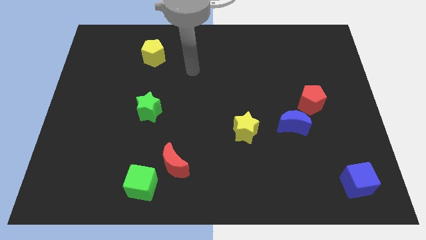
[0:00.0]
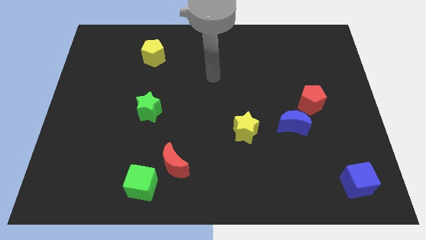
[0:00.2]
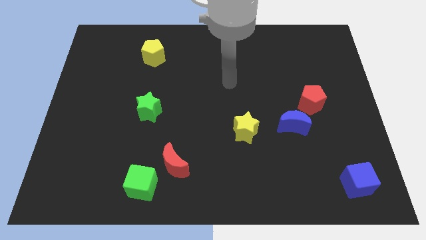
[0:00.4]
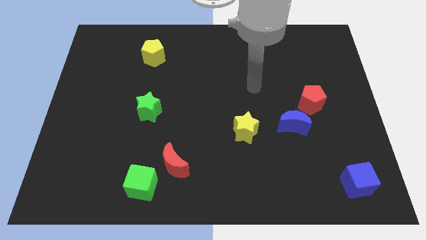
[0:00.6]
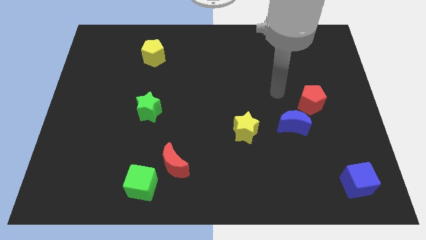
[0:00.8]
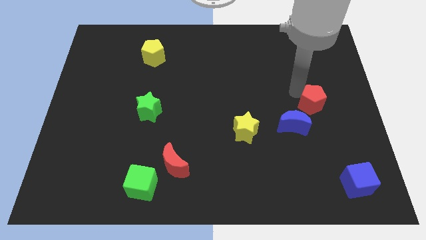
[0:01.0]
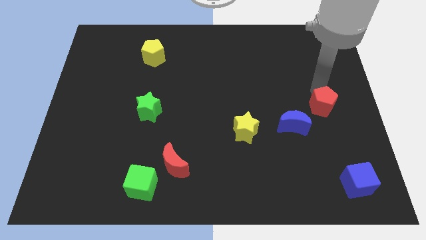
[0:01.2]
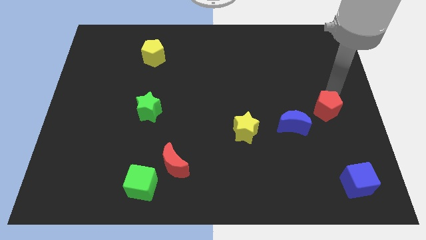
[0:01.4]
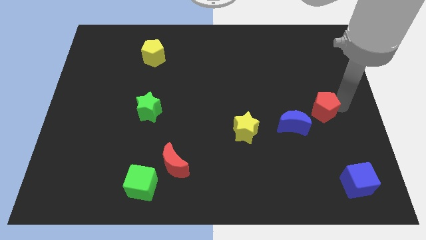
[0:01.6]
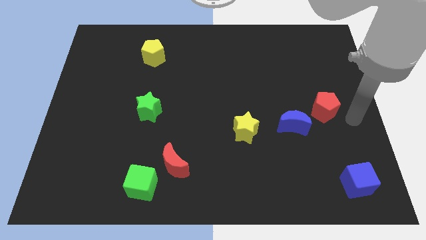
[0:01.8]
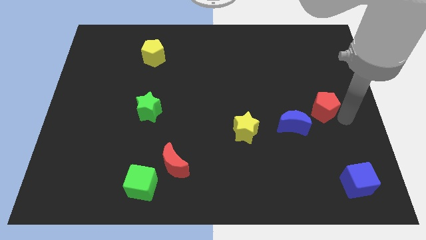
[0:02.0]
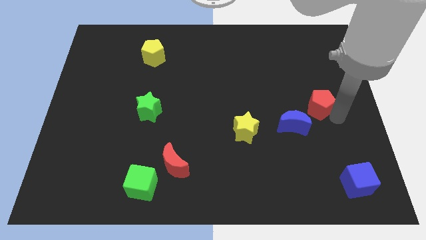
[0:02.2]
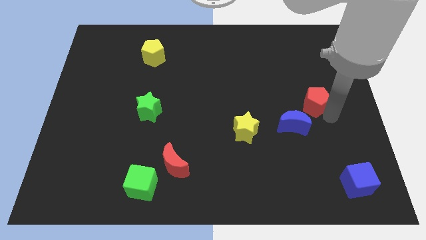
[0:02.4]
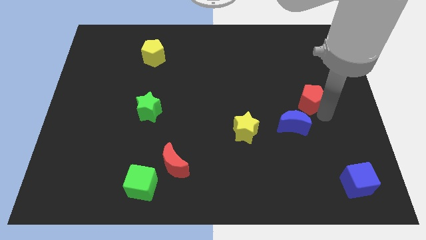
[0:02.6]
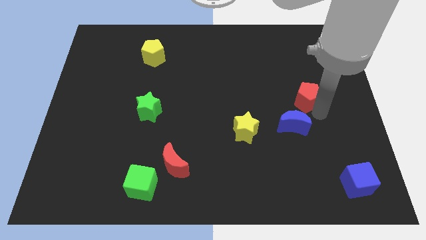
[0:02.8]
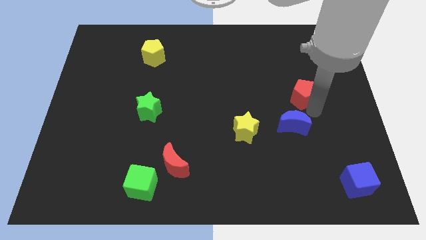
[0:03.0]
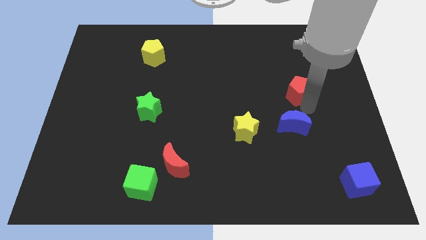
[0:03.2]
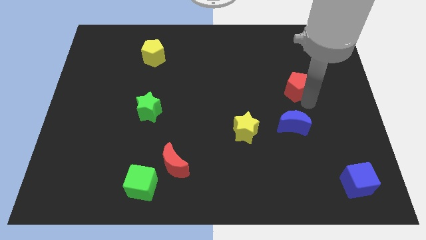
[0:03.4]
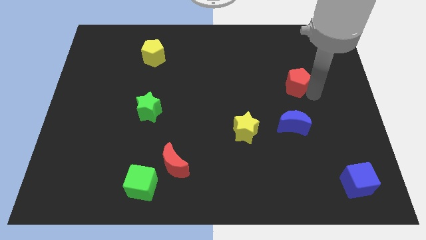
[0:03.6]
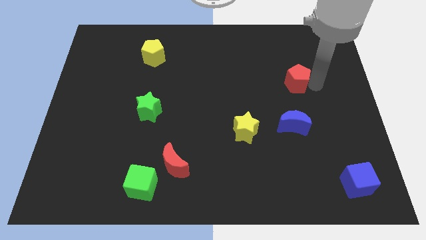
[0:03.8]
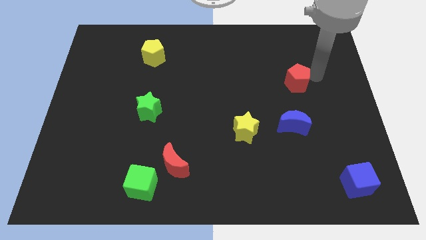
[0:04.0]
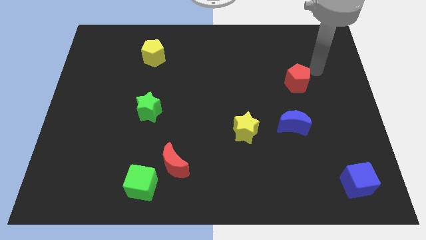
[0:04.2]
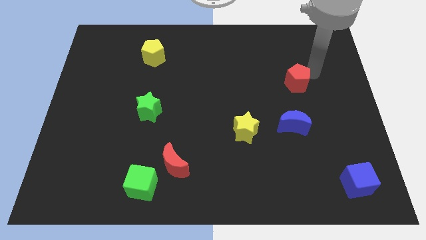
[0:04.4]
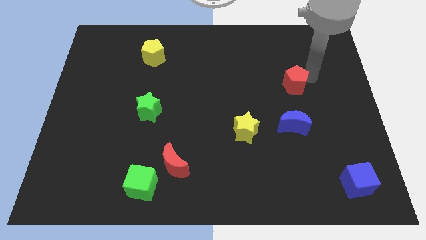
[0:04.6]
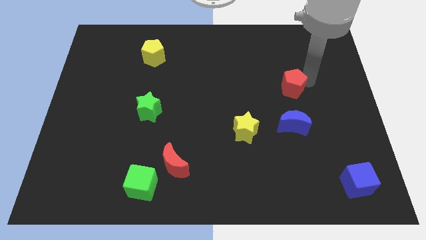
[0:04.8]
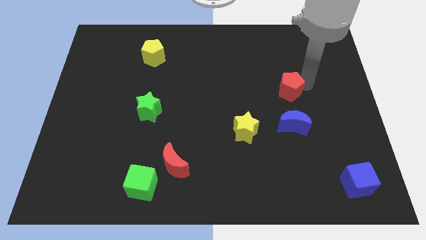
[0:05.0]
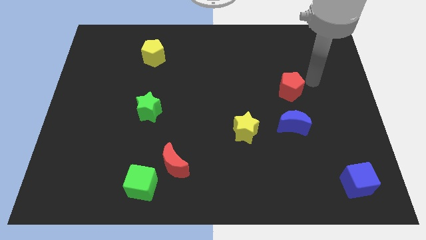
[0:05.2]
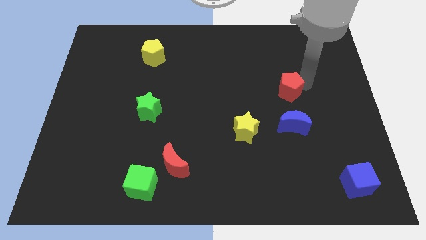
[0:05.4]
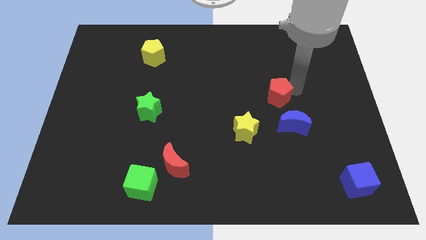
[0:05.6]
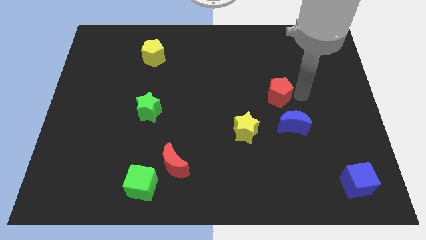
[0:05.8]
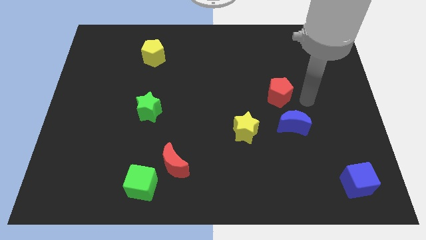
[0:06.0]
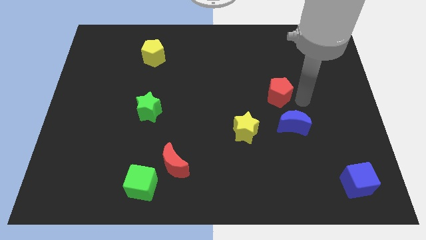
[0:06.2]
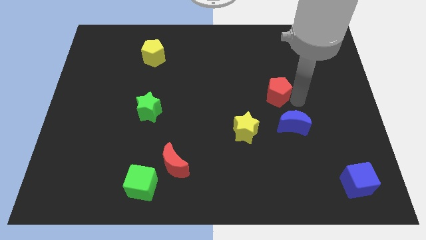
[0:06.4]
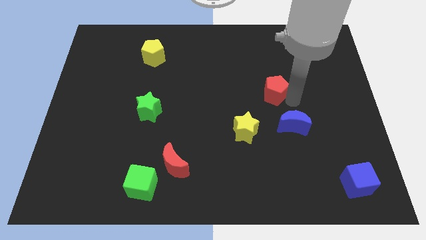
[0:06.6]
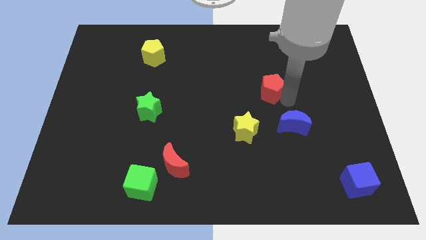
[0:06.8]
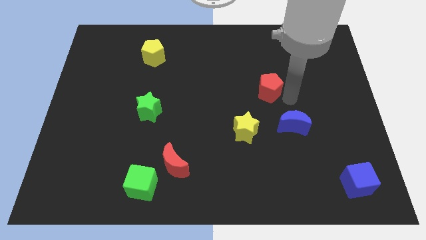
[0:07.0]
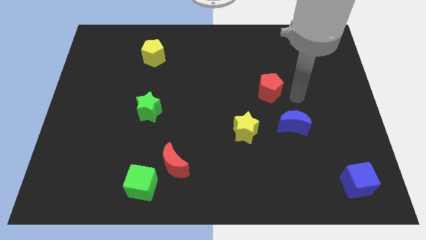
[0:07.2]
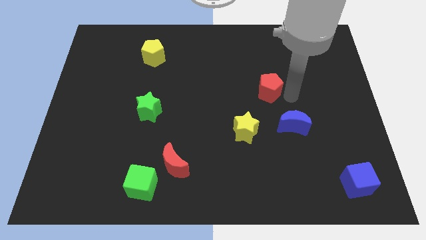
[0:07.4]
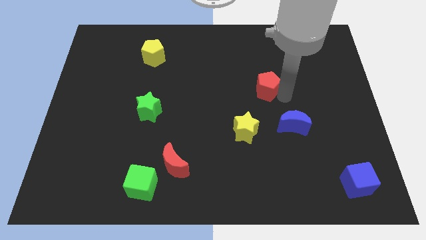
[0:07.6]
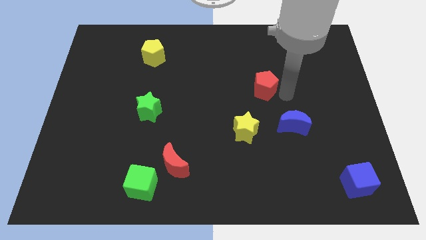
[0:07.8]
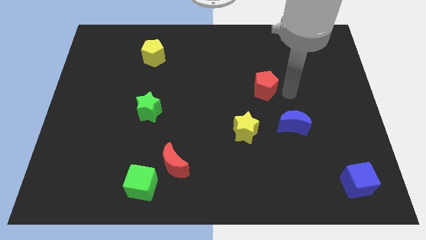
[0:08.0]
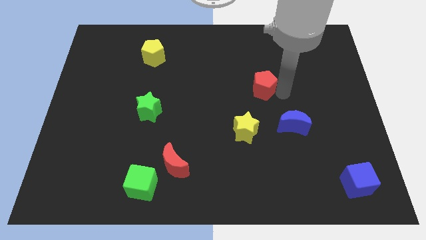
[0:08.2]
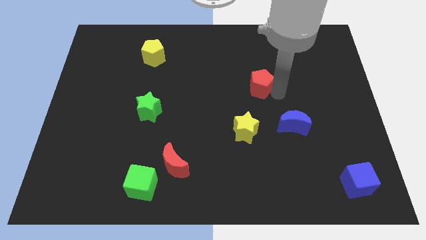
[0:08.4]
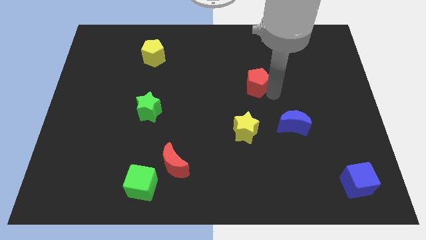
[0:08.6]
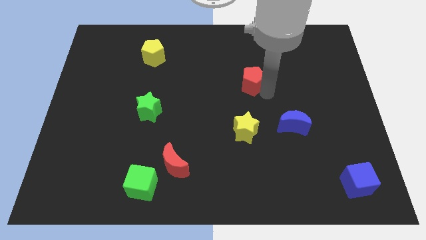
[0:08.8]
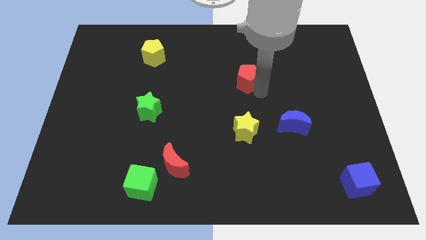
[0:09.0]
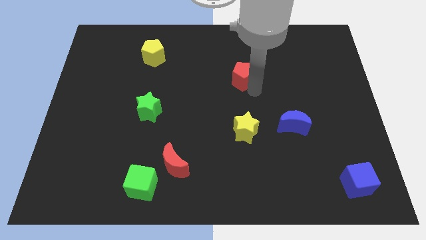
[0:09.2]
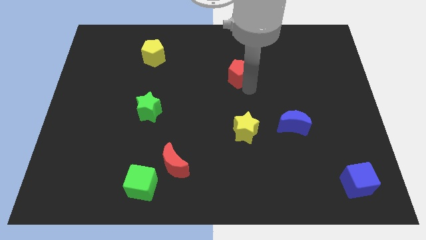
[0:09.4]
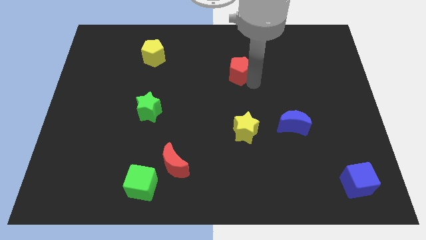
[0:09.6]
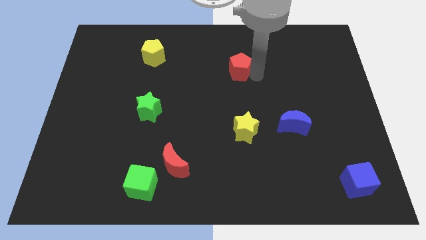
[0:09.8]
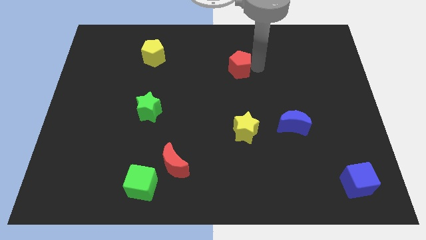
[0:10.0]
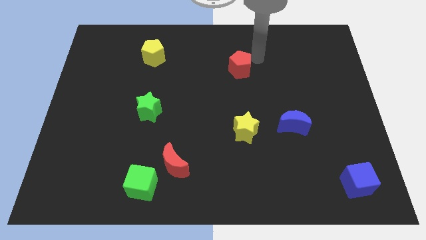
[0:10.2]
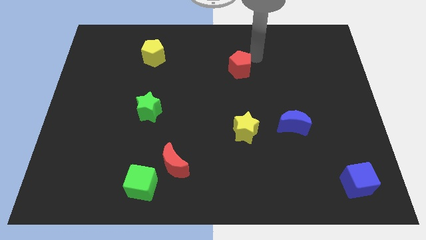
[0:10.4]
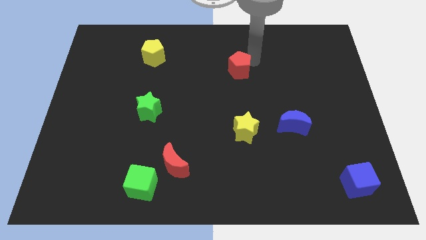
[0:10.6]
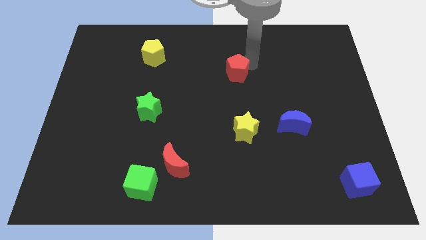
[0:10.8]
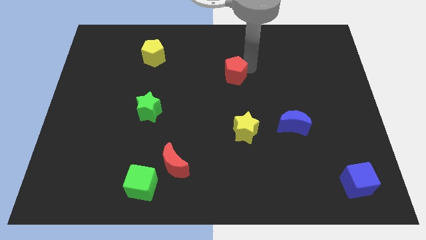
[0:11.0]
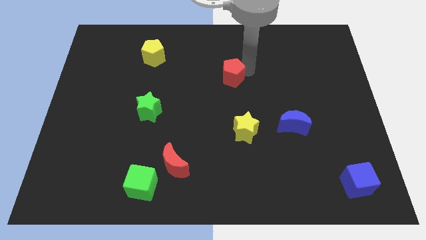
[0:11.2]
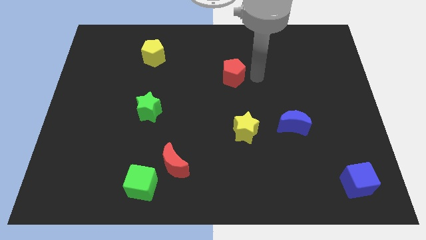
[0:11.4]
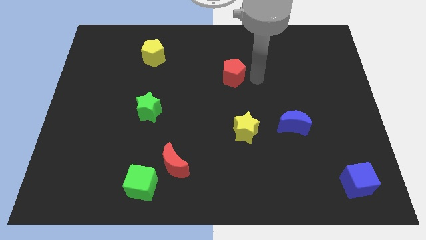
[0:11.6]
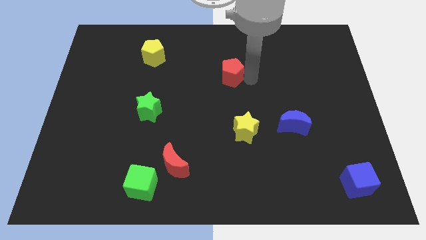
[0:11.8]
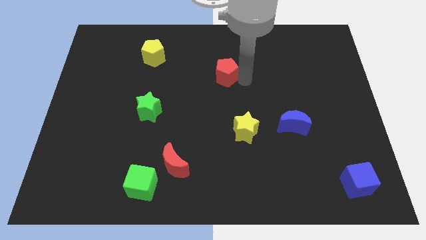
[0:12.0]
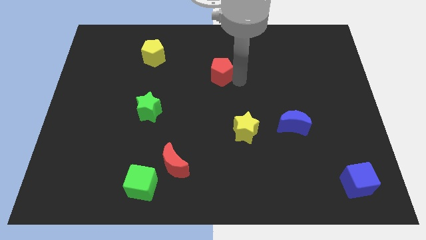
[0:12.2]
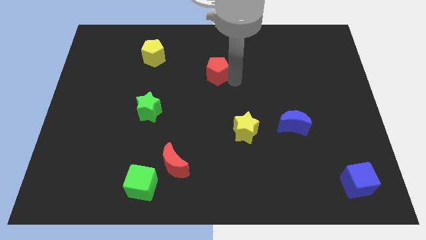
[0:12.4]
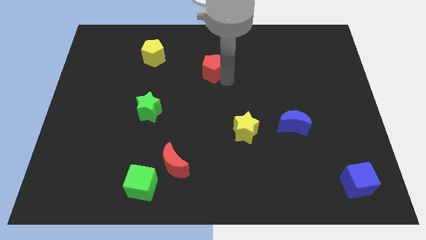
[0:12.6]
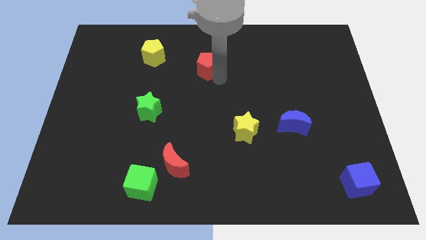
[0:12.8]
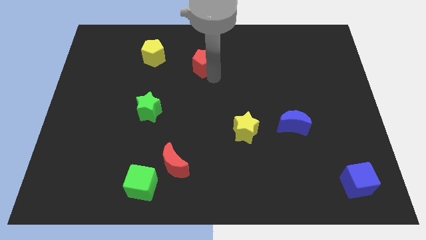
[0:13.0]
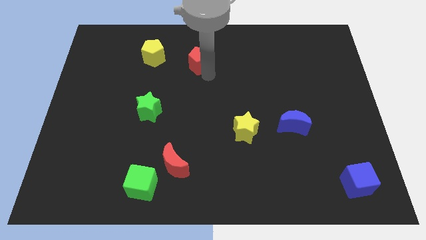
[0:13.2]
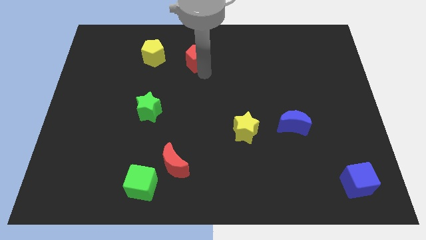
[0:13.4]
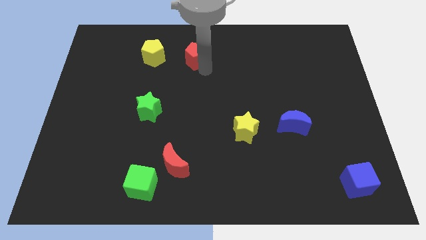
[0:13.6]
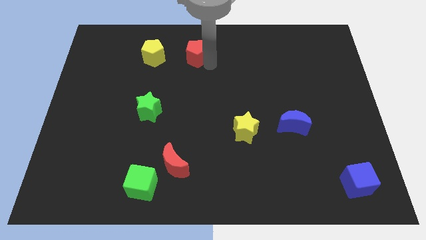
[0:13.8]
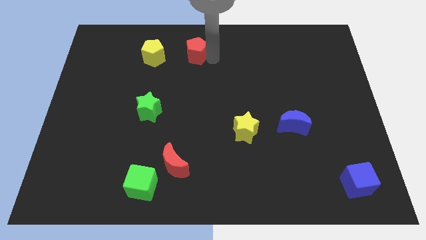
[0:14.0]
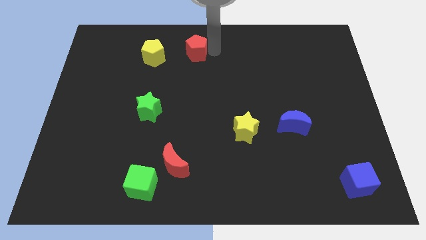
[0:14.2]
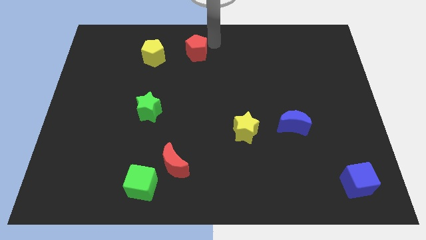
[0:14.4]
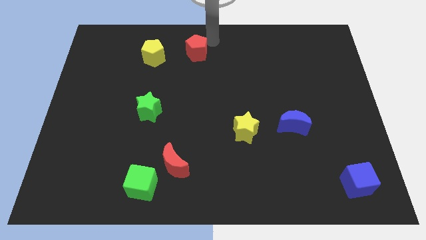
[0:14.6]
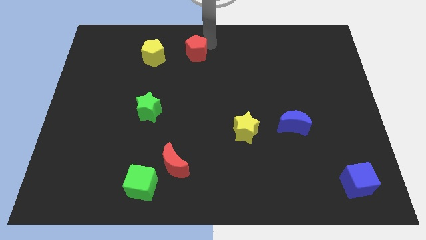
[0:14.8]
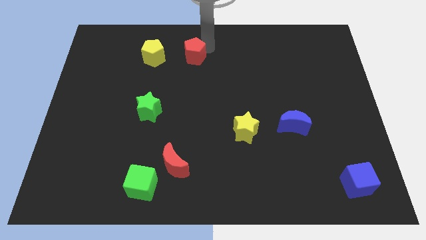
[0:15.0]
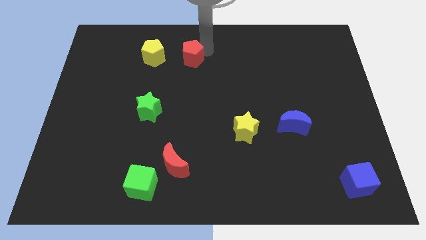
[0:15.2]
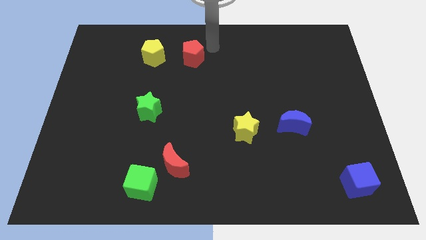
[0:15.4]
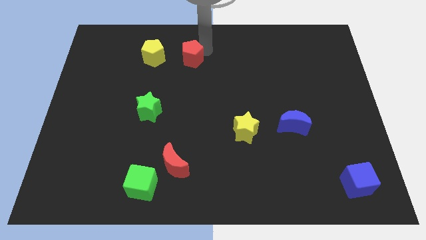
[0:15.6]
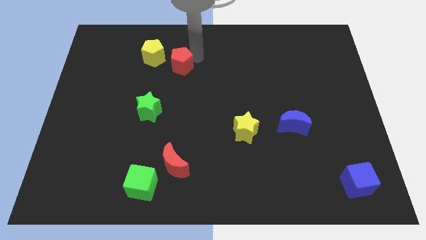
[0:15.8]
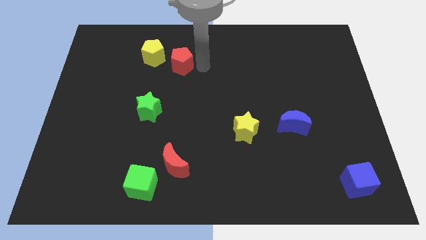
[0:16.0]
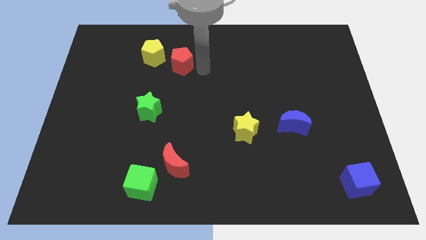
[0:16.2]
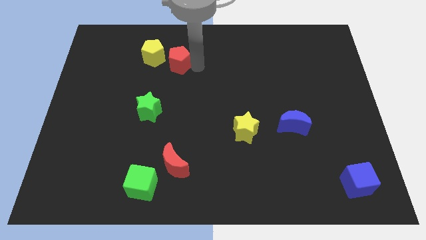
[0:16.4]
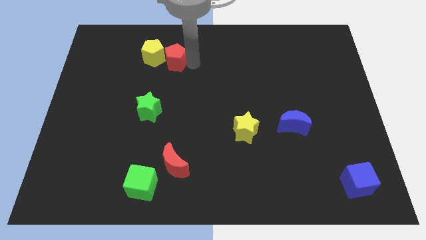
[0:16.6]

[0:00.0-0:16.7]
move the red pentagon close to the yellow pentagon
